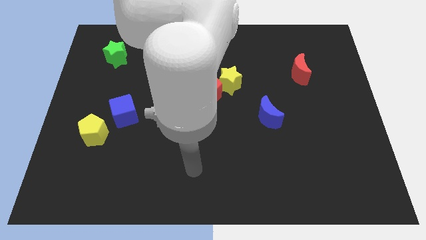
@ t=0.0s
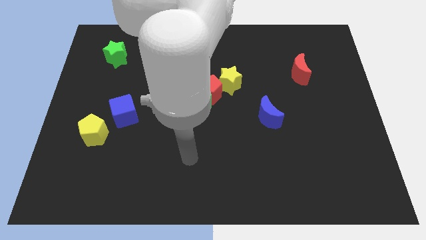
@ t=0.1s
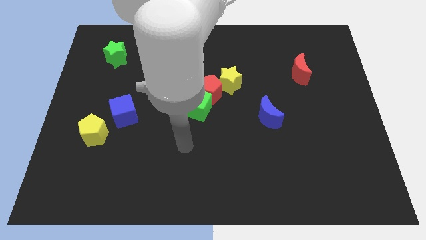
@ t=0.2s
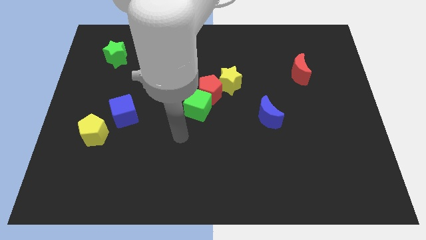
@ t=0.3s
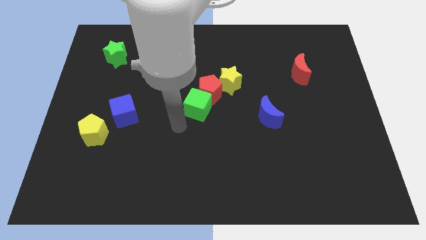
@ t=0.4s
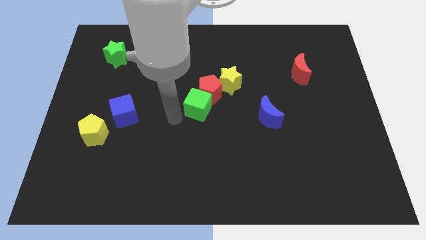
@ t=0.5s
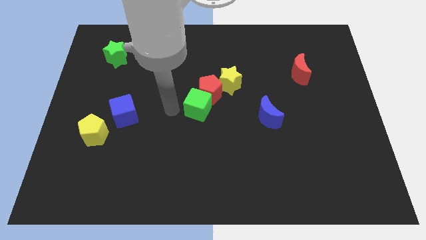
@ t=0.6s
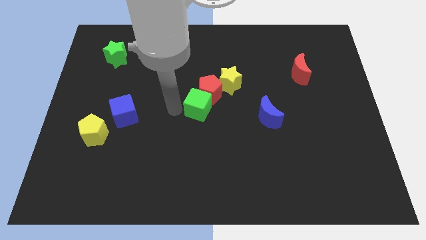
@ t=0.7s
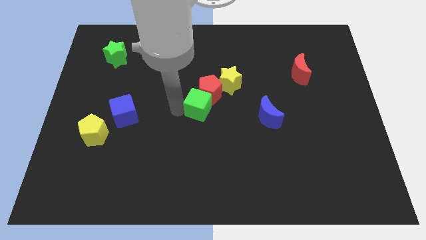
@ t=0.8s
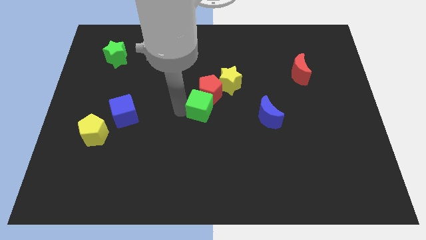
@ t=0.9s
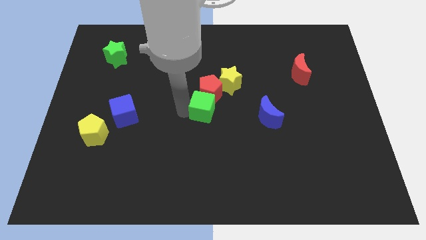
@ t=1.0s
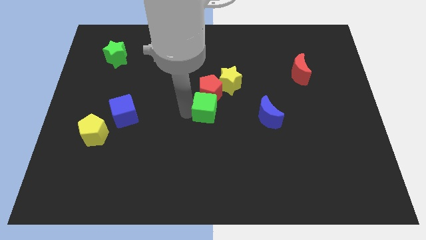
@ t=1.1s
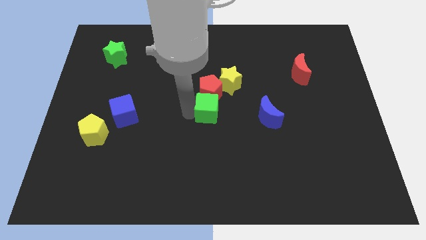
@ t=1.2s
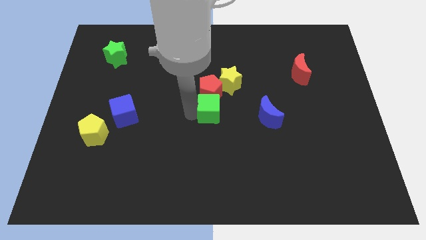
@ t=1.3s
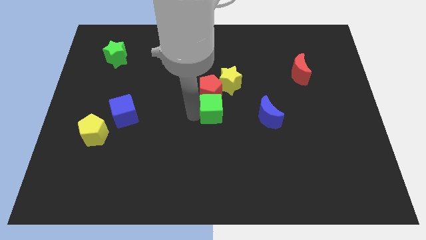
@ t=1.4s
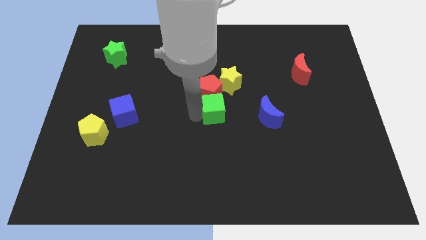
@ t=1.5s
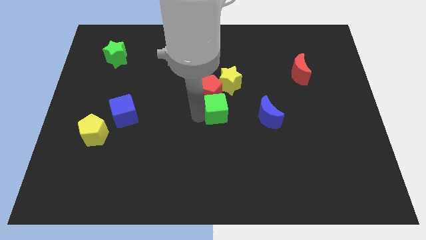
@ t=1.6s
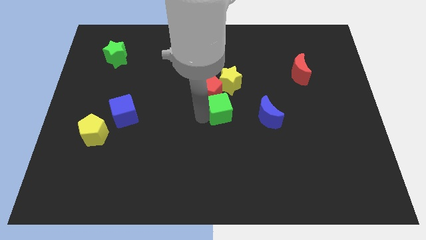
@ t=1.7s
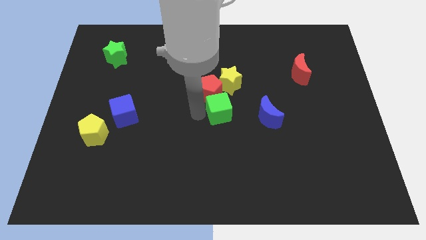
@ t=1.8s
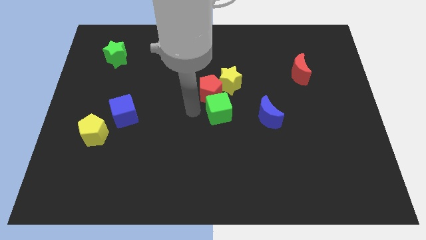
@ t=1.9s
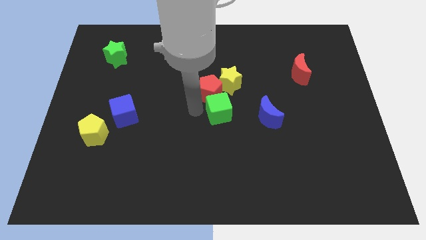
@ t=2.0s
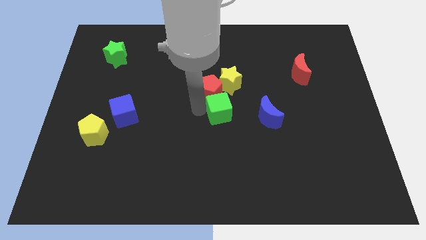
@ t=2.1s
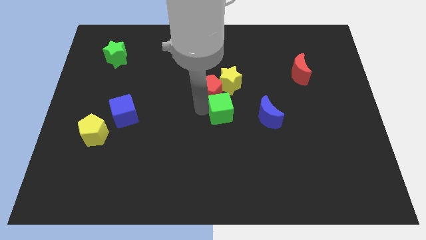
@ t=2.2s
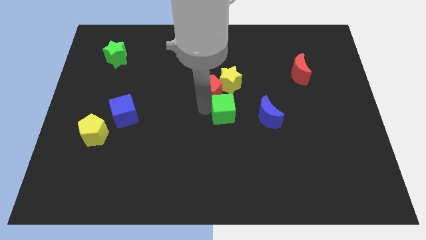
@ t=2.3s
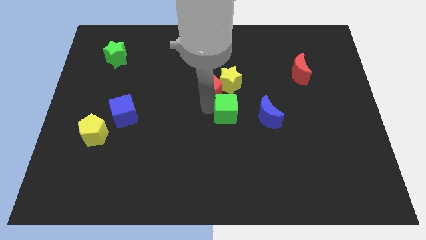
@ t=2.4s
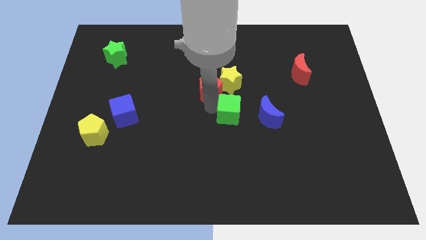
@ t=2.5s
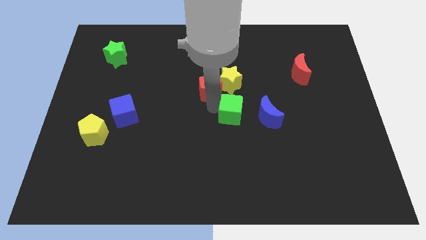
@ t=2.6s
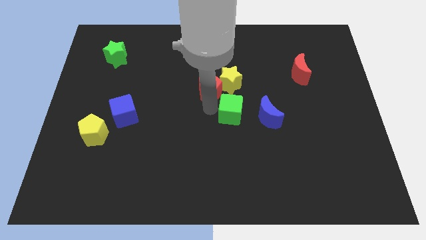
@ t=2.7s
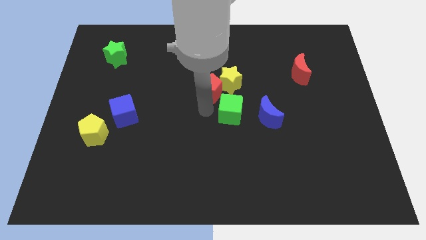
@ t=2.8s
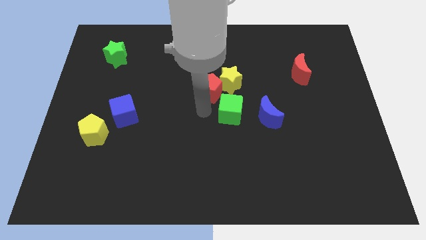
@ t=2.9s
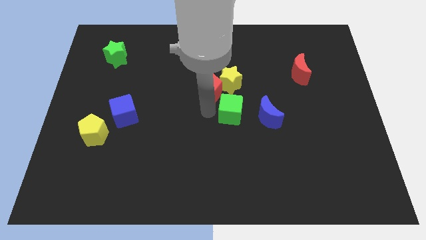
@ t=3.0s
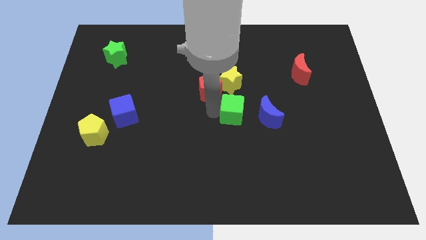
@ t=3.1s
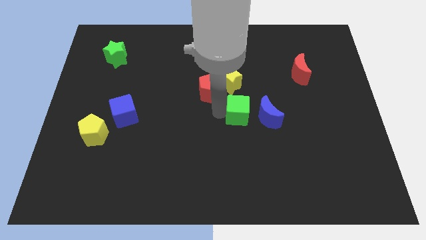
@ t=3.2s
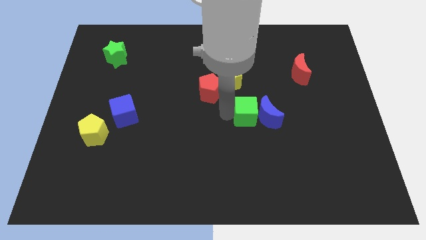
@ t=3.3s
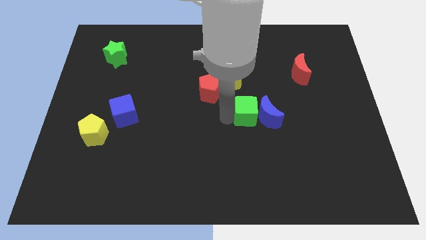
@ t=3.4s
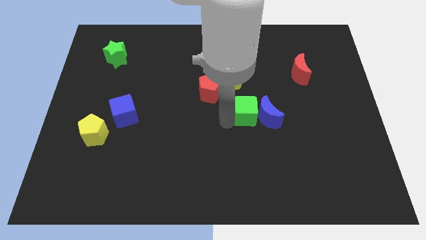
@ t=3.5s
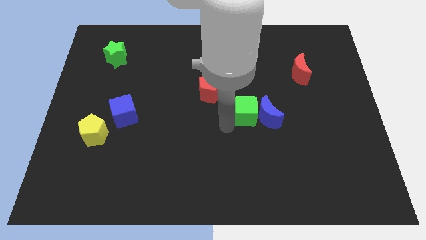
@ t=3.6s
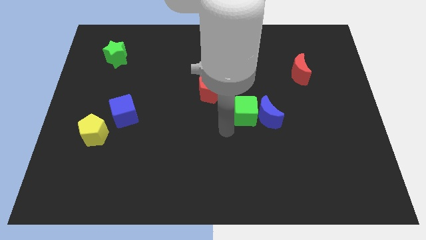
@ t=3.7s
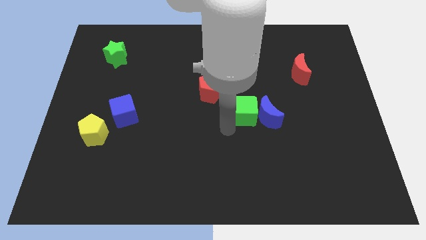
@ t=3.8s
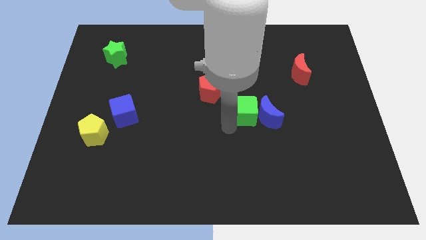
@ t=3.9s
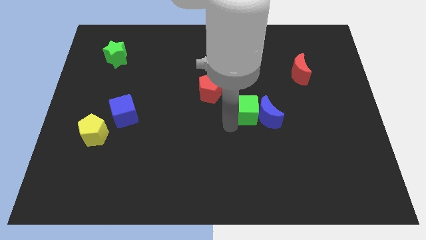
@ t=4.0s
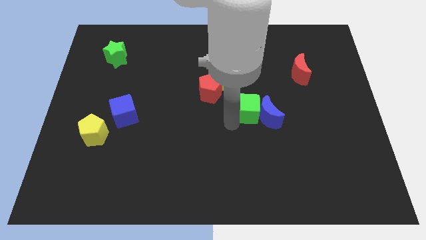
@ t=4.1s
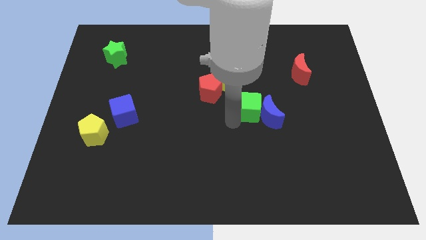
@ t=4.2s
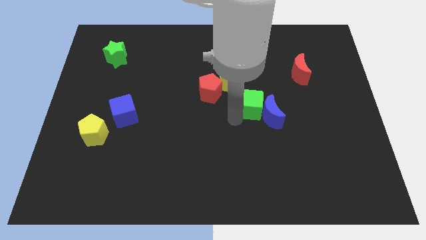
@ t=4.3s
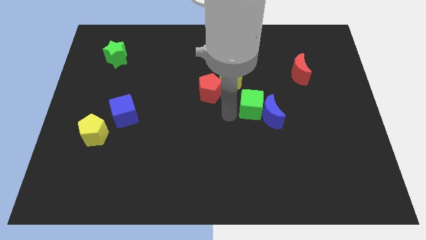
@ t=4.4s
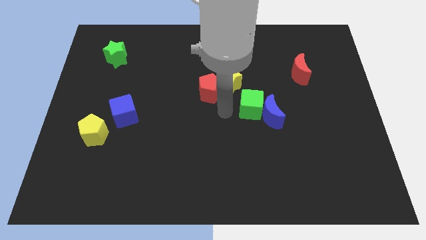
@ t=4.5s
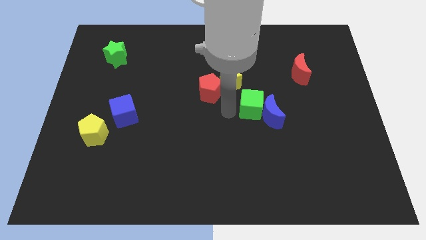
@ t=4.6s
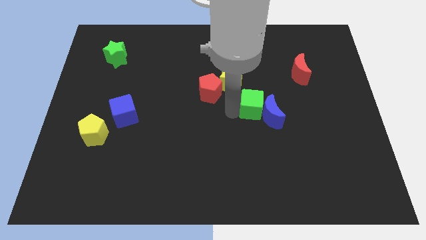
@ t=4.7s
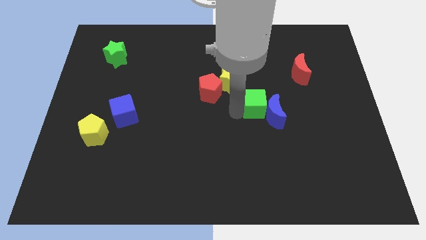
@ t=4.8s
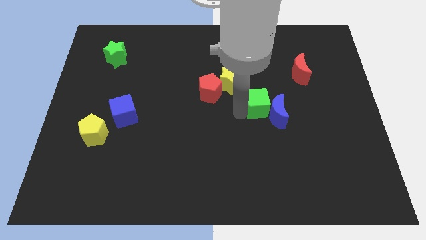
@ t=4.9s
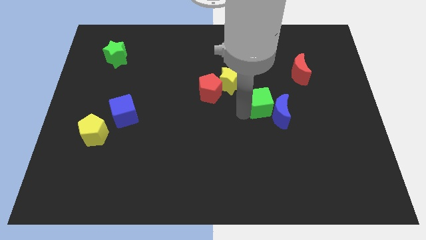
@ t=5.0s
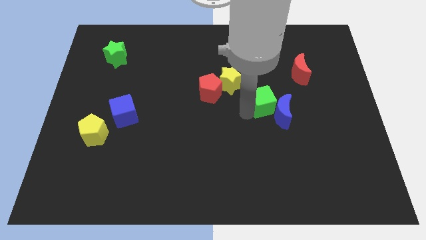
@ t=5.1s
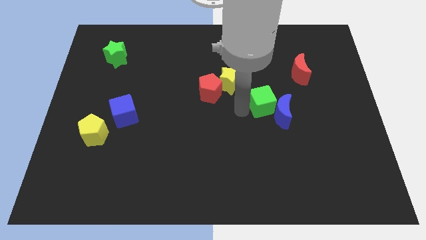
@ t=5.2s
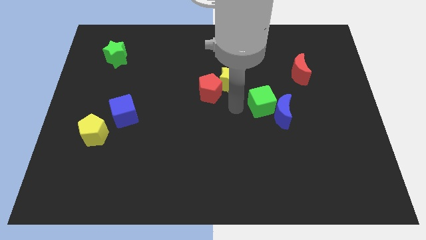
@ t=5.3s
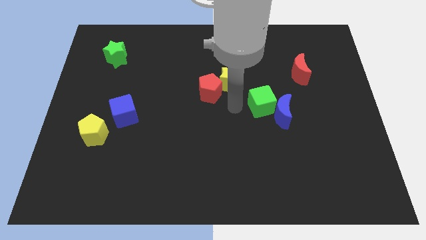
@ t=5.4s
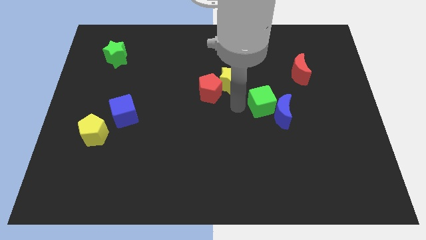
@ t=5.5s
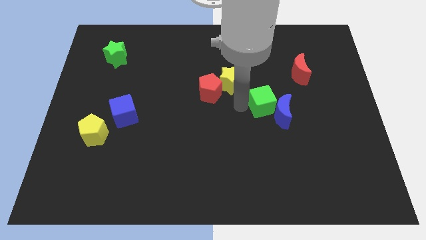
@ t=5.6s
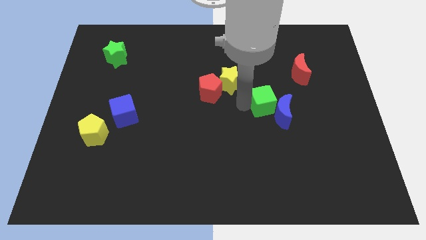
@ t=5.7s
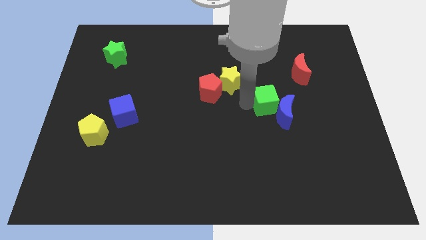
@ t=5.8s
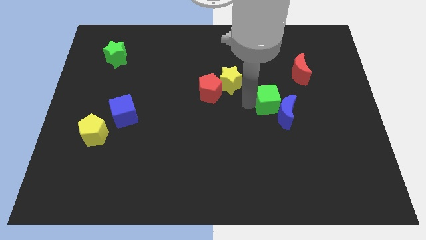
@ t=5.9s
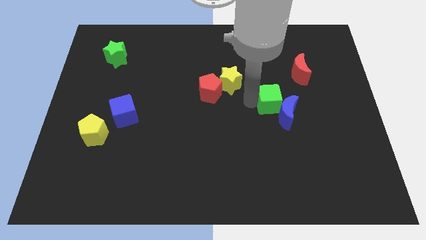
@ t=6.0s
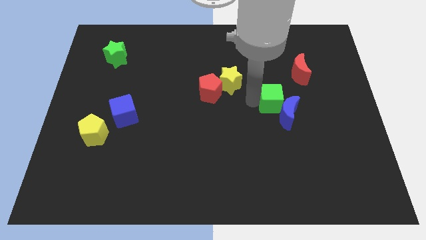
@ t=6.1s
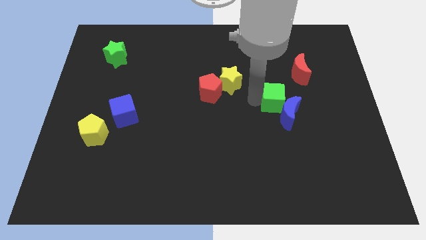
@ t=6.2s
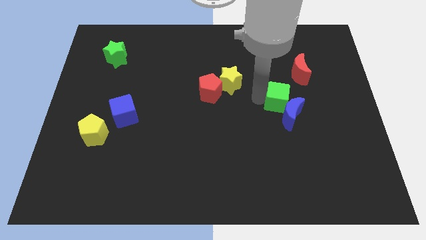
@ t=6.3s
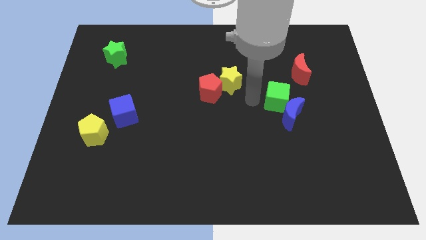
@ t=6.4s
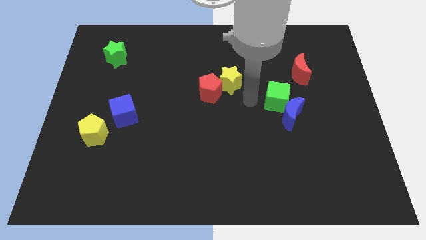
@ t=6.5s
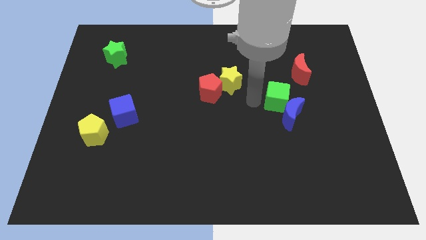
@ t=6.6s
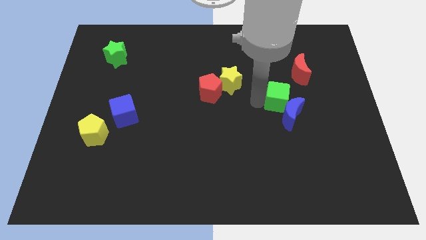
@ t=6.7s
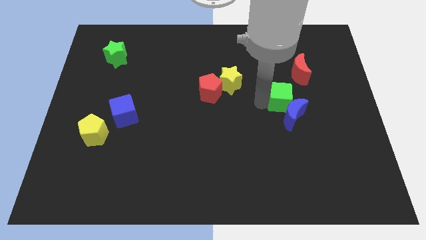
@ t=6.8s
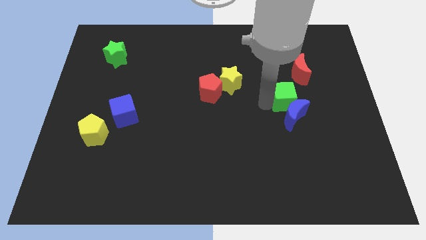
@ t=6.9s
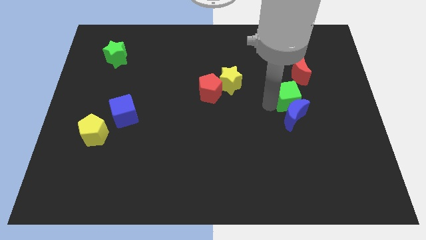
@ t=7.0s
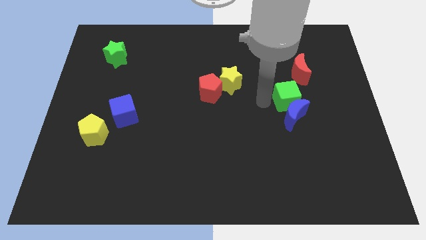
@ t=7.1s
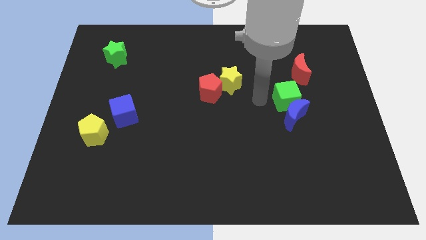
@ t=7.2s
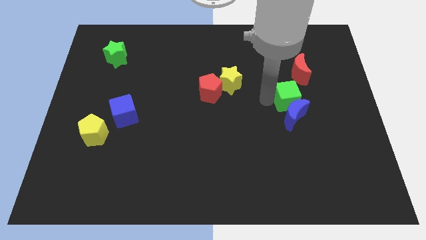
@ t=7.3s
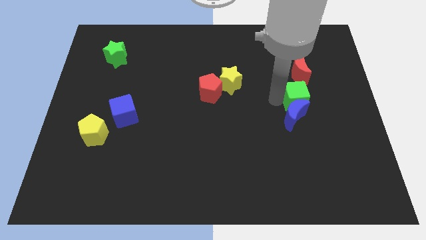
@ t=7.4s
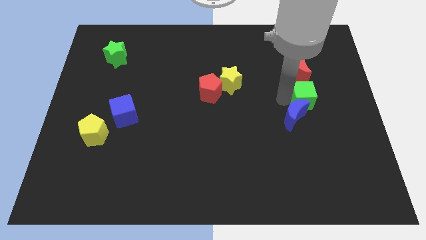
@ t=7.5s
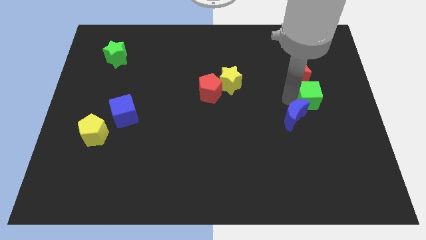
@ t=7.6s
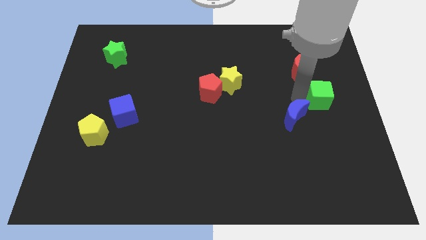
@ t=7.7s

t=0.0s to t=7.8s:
slide the green cube to the center right
